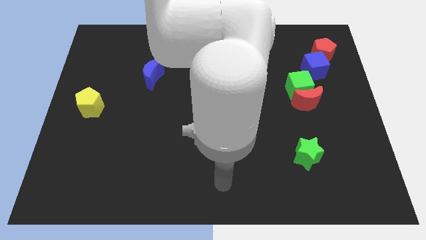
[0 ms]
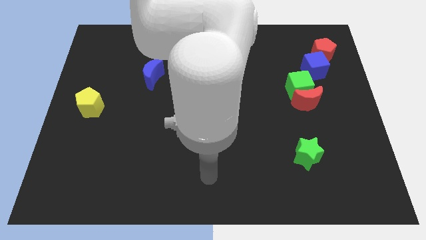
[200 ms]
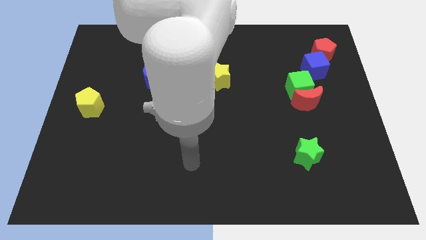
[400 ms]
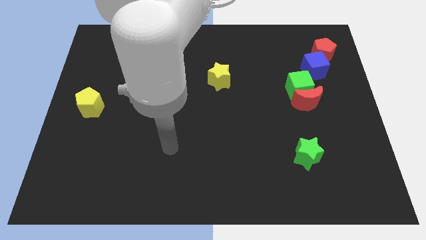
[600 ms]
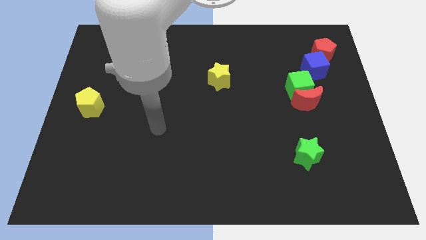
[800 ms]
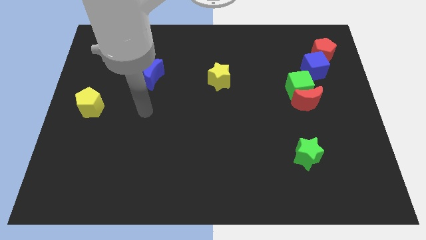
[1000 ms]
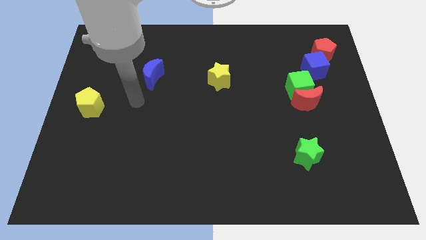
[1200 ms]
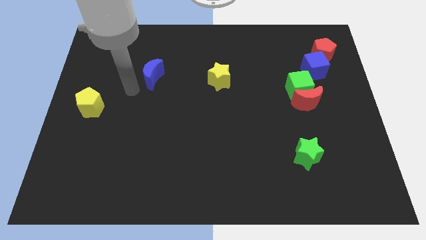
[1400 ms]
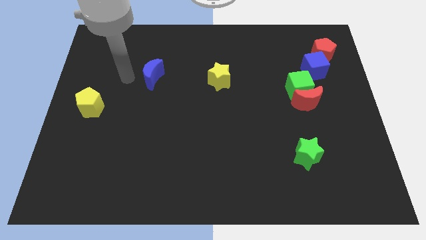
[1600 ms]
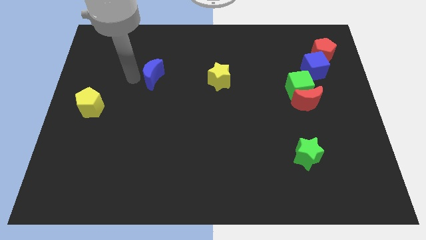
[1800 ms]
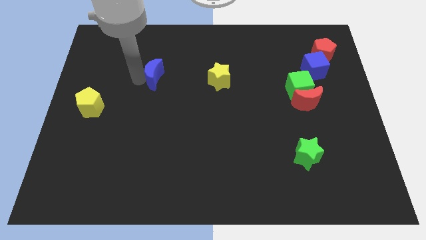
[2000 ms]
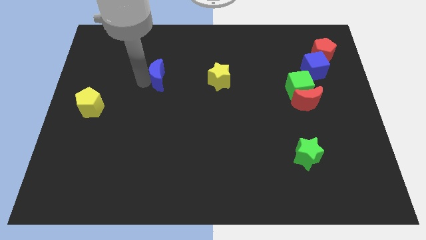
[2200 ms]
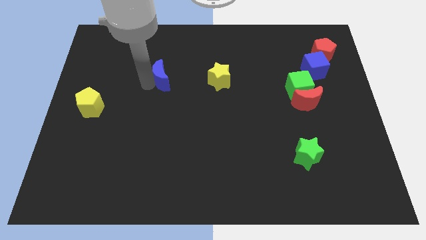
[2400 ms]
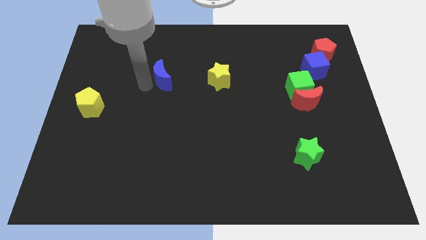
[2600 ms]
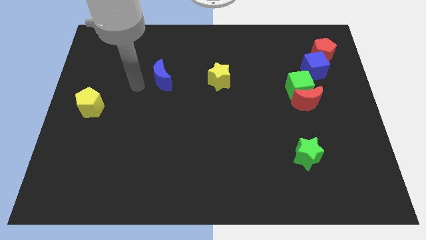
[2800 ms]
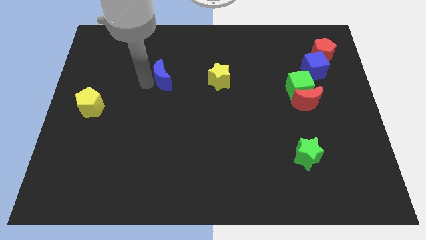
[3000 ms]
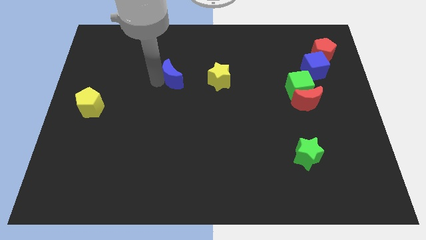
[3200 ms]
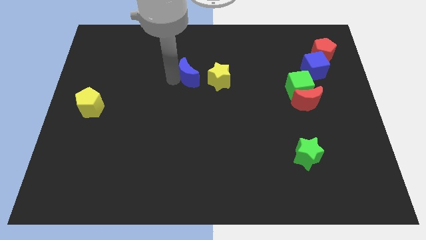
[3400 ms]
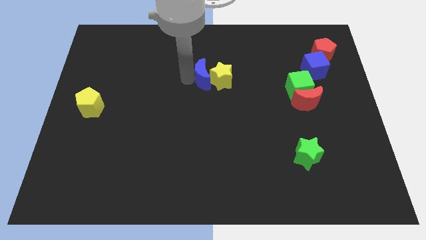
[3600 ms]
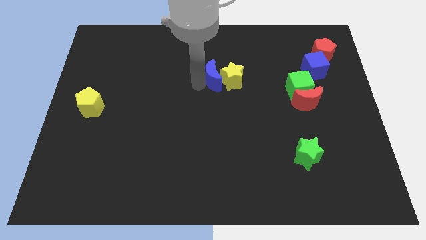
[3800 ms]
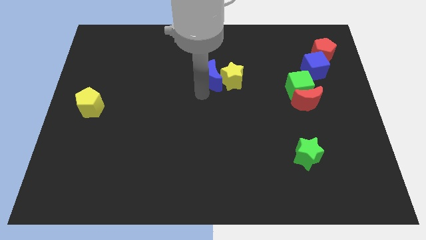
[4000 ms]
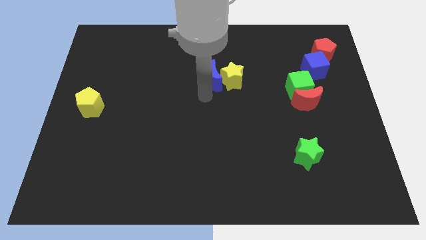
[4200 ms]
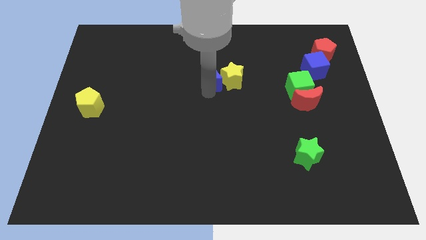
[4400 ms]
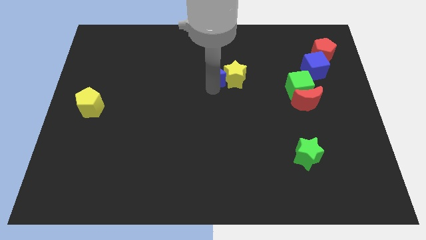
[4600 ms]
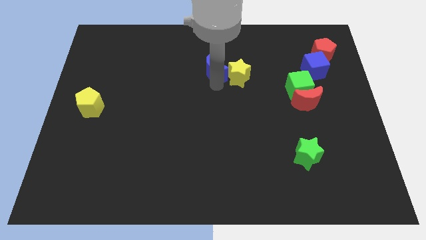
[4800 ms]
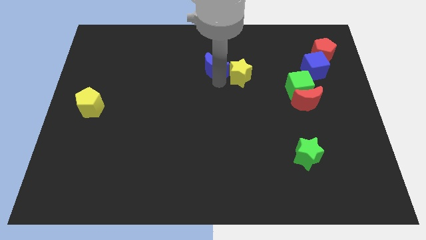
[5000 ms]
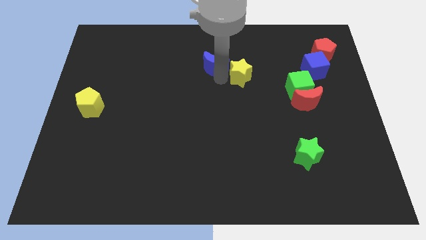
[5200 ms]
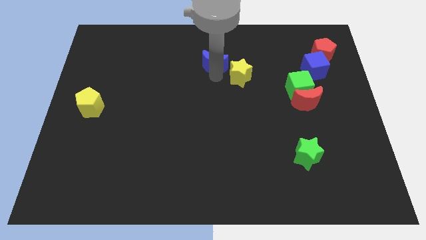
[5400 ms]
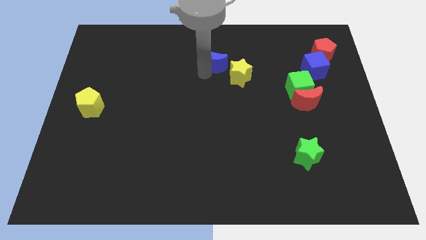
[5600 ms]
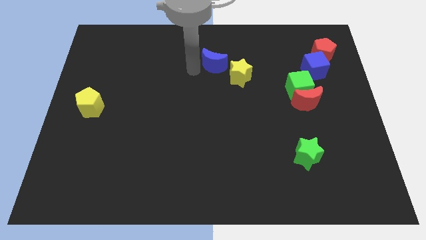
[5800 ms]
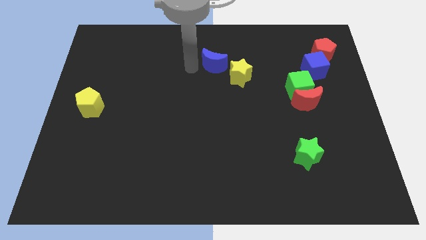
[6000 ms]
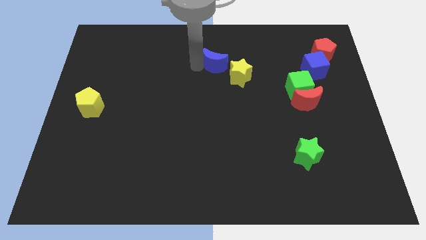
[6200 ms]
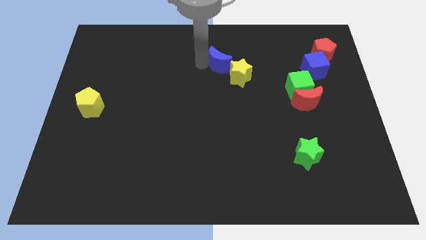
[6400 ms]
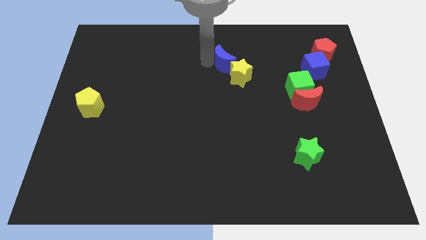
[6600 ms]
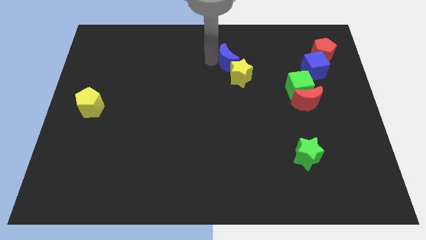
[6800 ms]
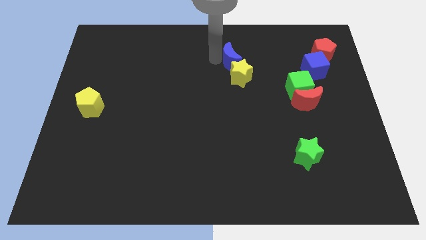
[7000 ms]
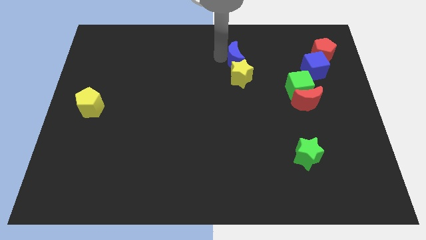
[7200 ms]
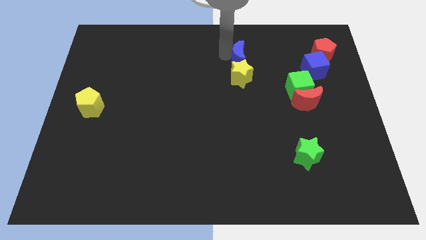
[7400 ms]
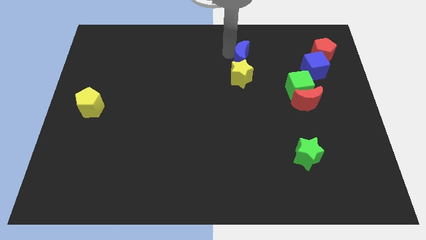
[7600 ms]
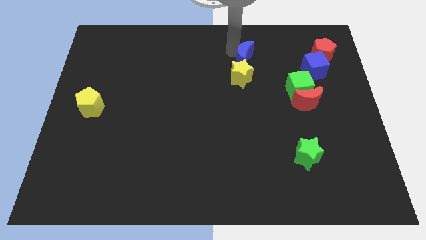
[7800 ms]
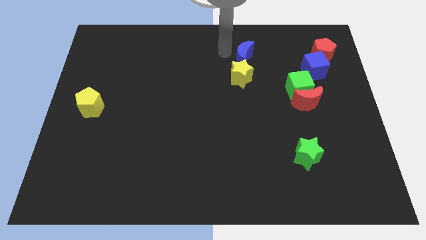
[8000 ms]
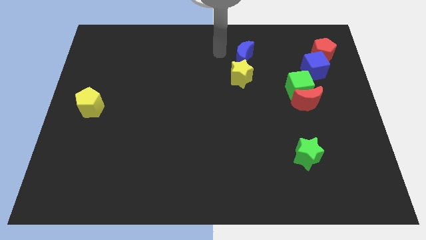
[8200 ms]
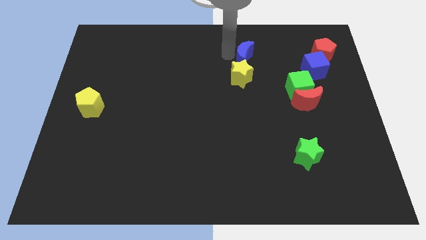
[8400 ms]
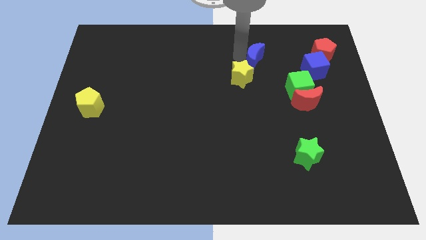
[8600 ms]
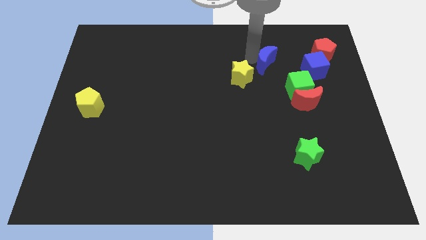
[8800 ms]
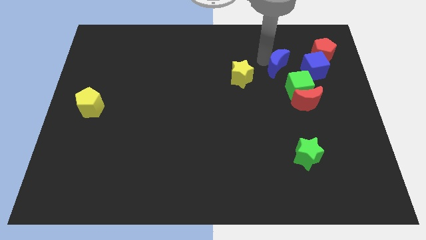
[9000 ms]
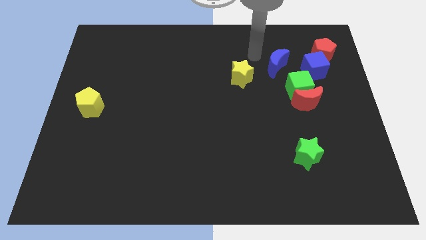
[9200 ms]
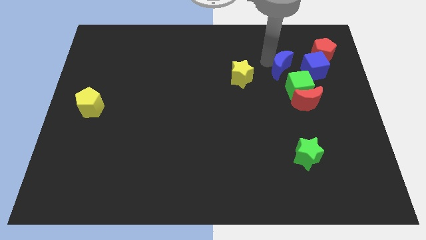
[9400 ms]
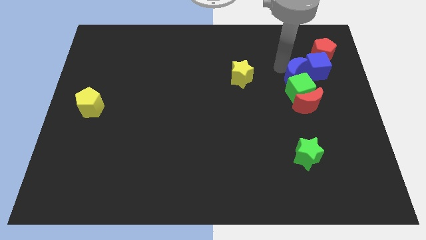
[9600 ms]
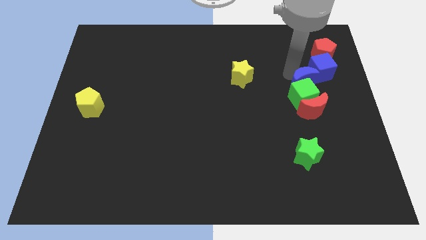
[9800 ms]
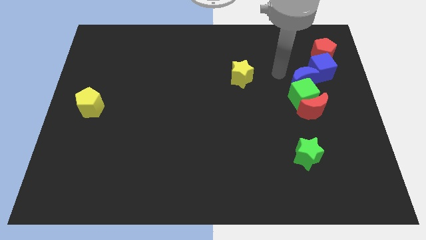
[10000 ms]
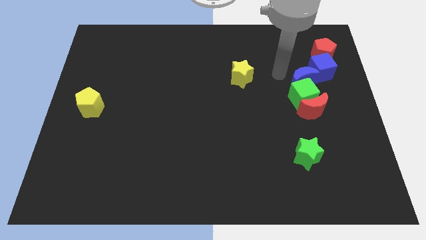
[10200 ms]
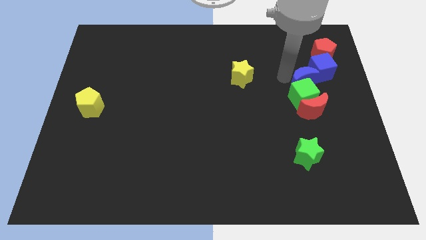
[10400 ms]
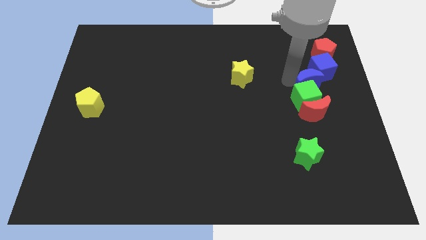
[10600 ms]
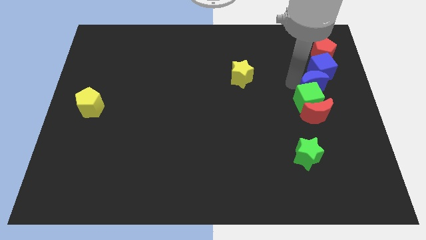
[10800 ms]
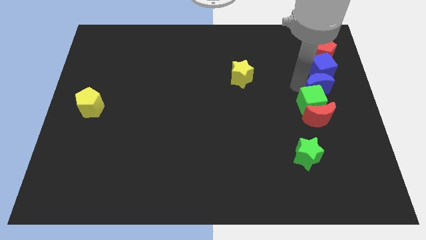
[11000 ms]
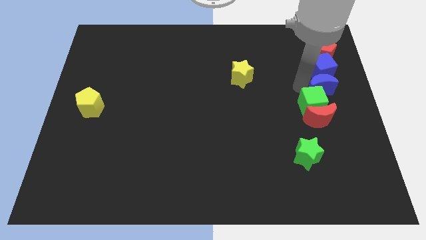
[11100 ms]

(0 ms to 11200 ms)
move the blue moon to the right side
